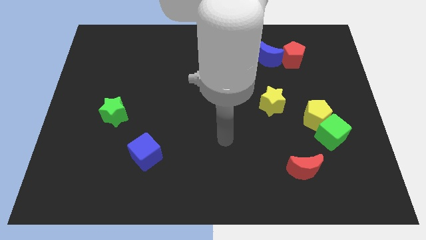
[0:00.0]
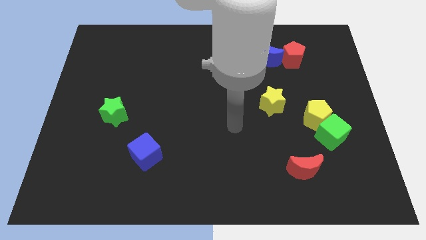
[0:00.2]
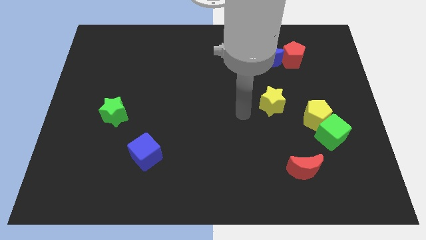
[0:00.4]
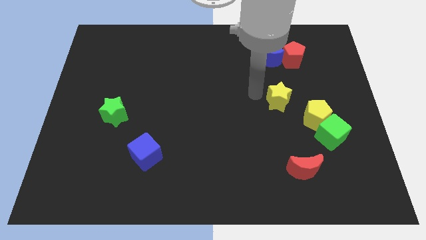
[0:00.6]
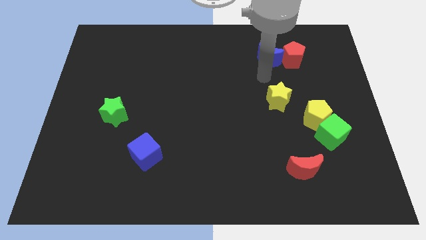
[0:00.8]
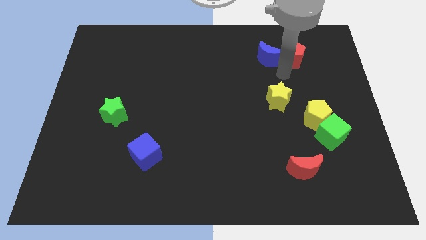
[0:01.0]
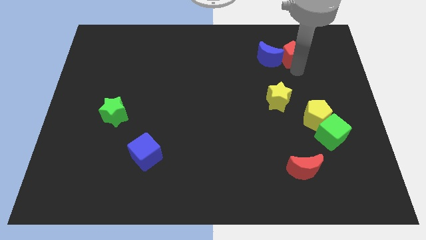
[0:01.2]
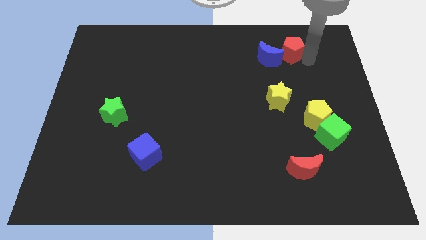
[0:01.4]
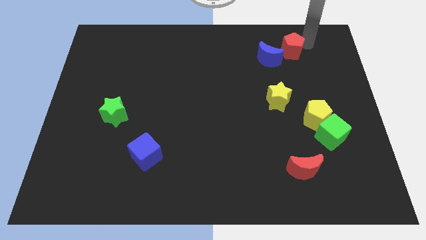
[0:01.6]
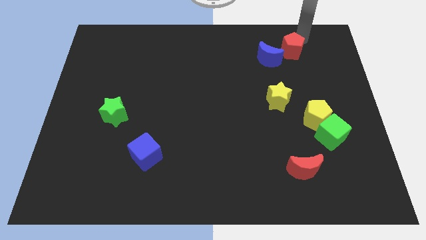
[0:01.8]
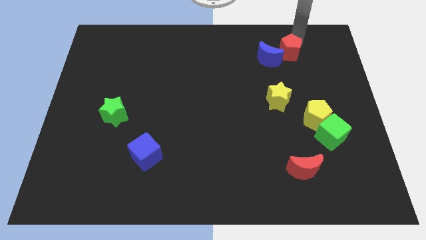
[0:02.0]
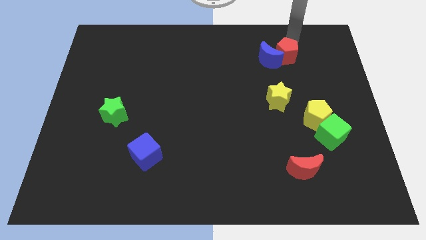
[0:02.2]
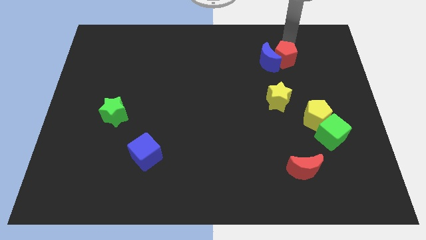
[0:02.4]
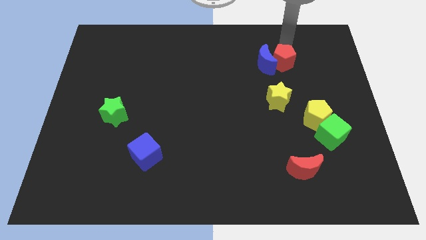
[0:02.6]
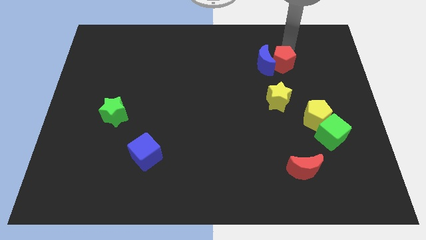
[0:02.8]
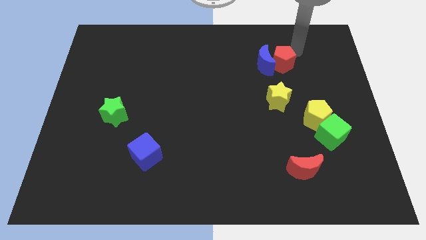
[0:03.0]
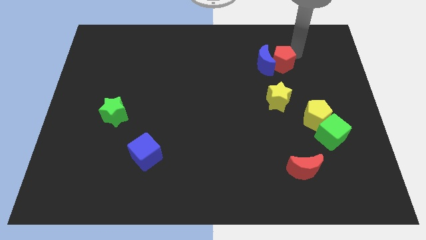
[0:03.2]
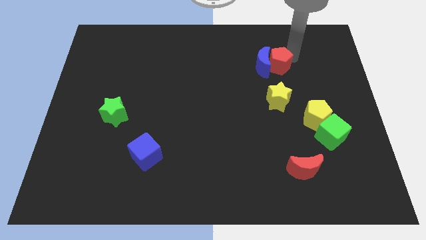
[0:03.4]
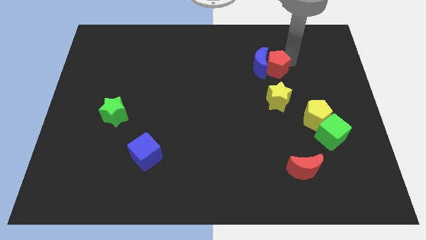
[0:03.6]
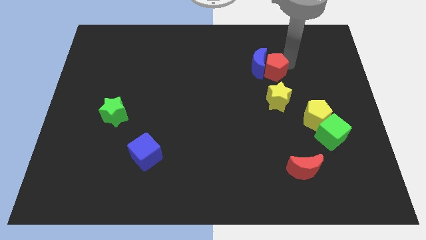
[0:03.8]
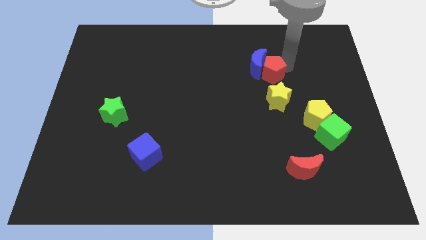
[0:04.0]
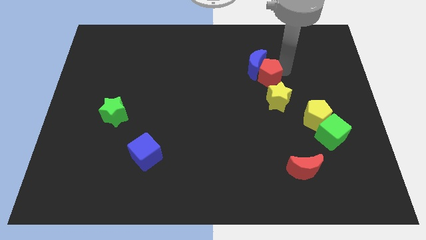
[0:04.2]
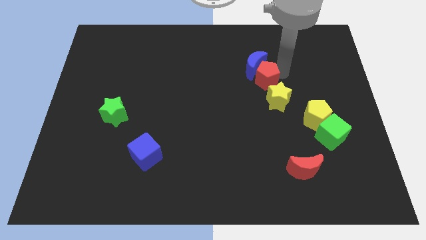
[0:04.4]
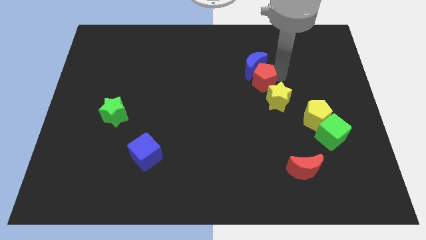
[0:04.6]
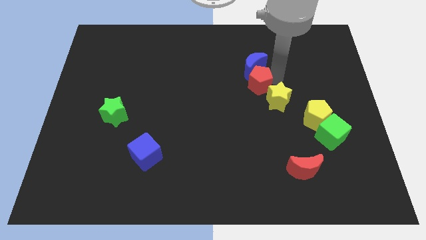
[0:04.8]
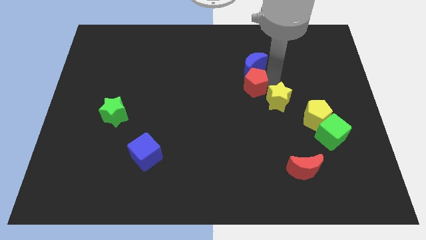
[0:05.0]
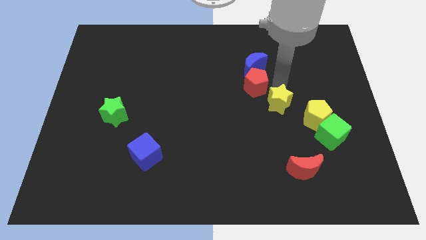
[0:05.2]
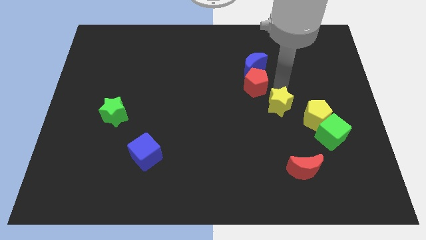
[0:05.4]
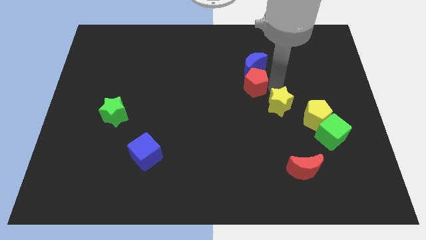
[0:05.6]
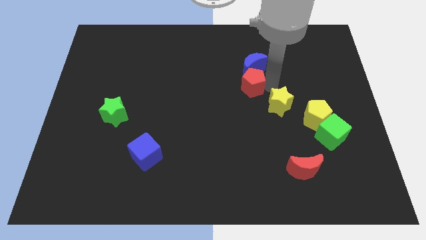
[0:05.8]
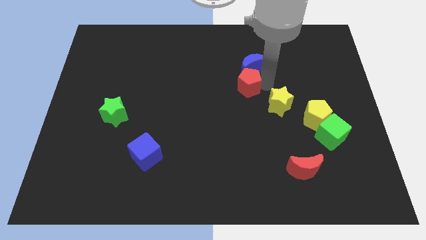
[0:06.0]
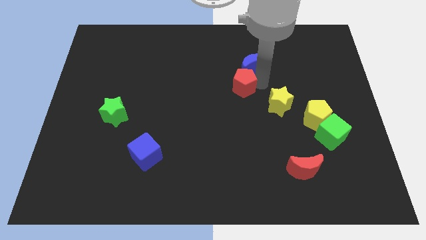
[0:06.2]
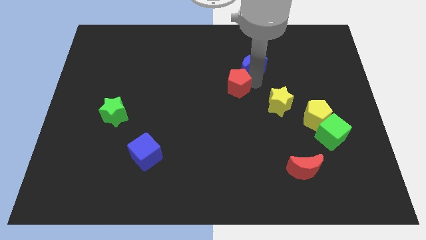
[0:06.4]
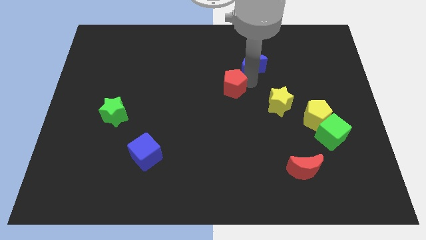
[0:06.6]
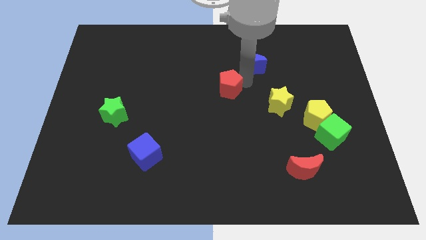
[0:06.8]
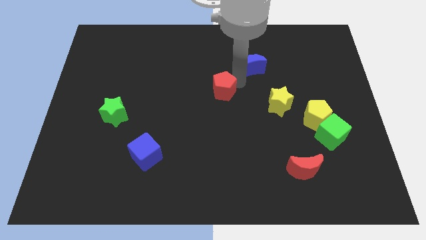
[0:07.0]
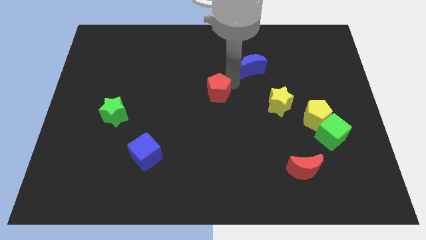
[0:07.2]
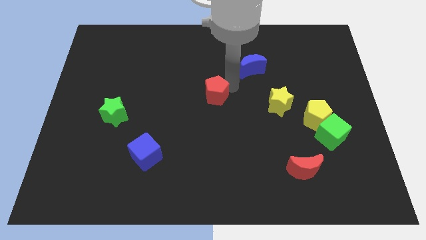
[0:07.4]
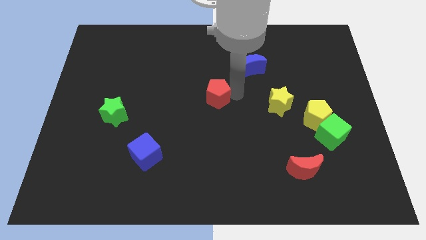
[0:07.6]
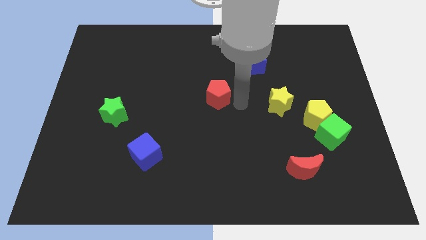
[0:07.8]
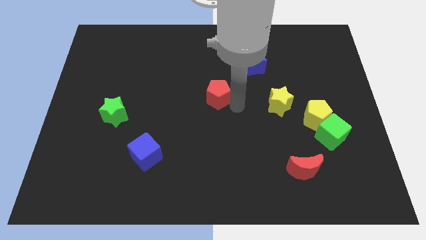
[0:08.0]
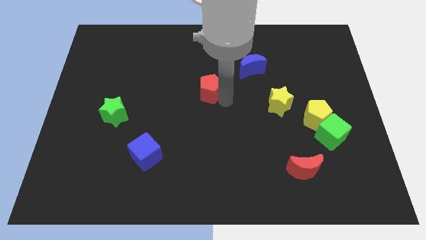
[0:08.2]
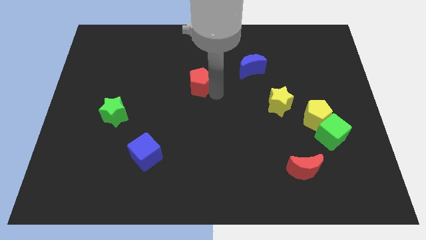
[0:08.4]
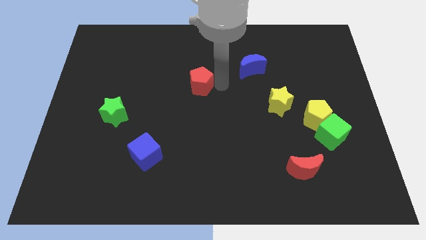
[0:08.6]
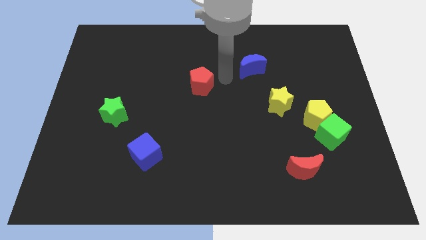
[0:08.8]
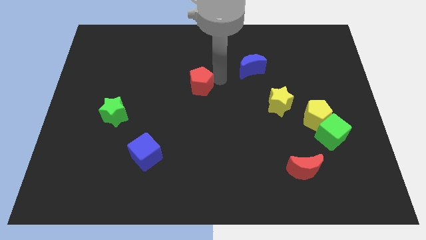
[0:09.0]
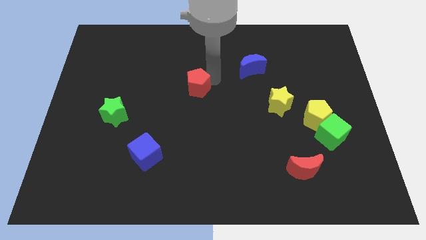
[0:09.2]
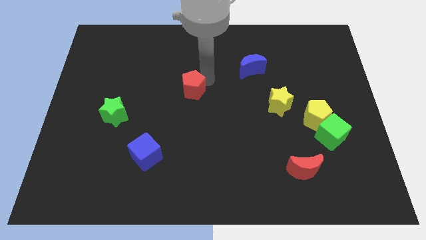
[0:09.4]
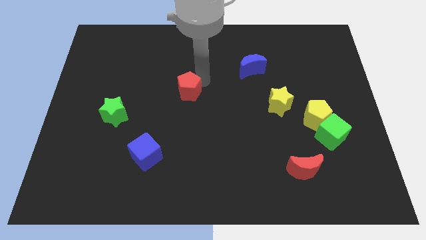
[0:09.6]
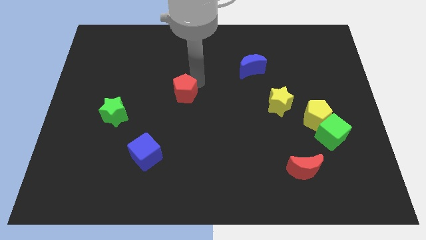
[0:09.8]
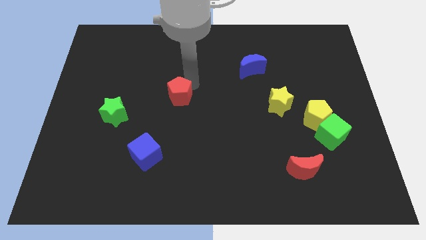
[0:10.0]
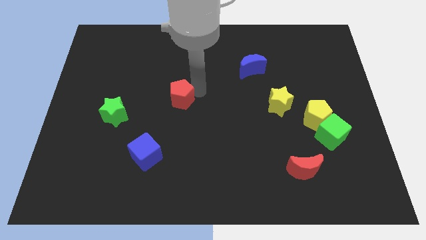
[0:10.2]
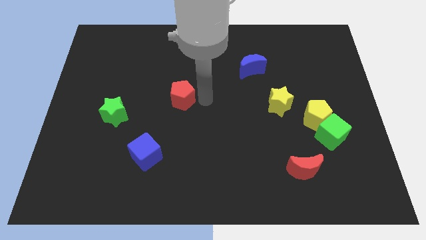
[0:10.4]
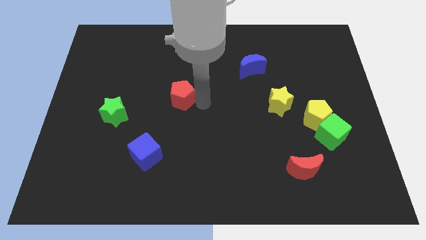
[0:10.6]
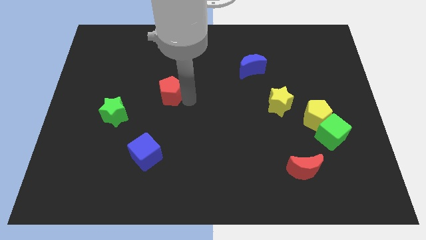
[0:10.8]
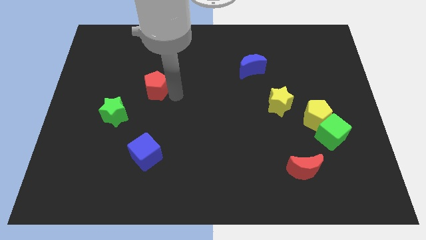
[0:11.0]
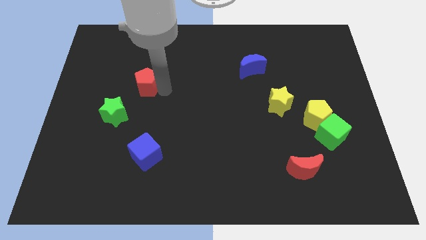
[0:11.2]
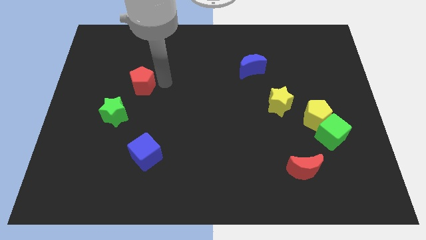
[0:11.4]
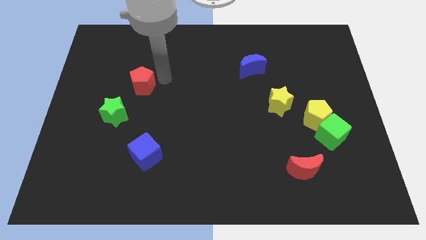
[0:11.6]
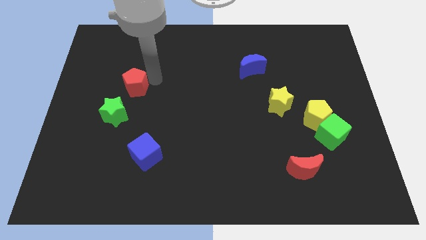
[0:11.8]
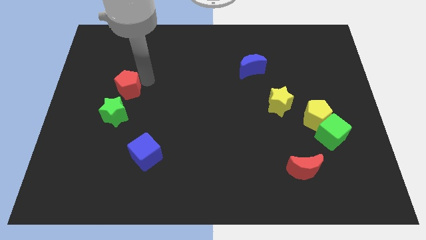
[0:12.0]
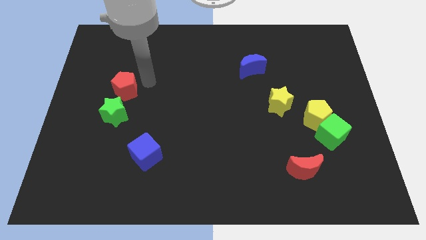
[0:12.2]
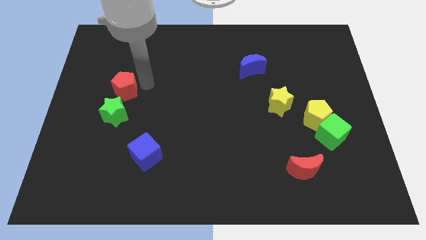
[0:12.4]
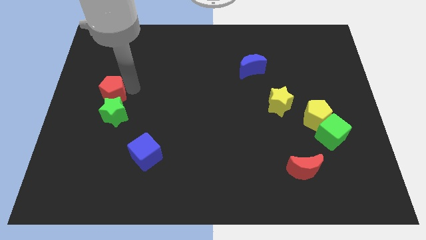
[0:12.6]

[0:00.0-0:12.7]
push the red pentagon diagonally up and to the left of the green star

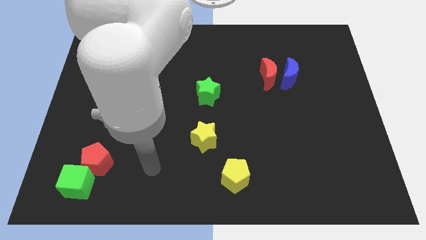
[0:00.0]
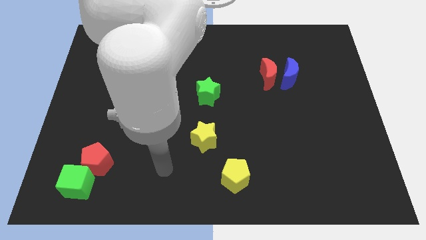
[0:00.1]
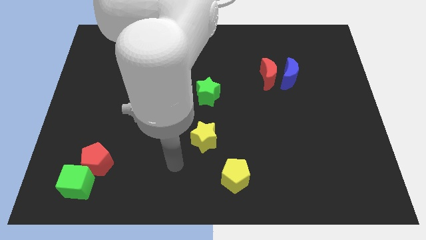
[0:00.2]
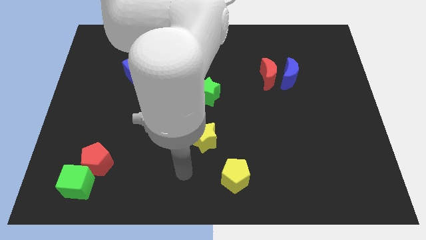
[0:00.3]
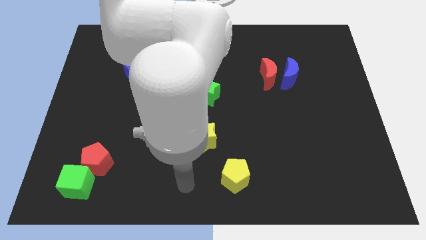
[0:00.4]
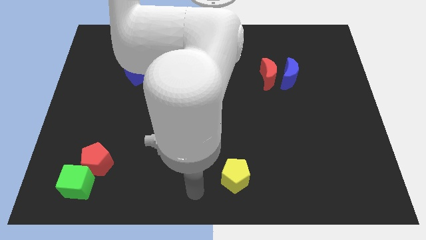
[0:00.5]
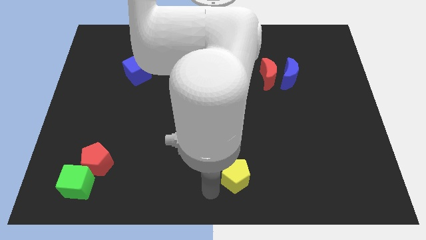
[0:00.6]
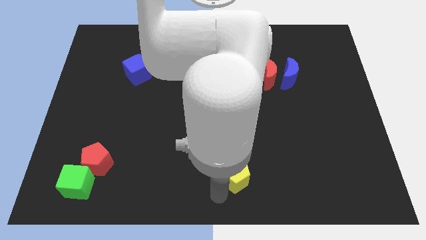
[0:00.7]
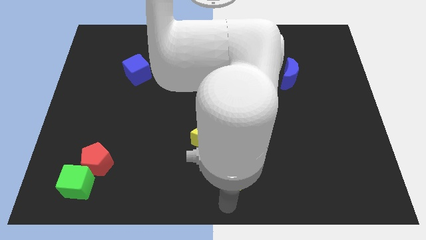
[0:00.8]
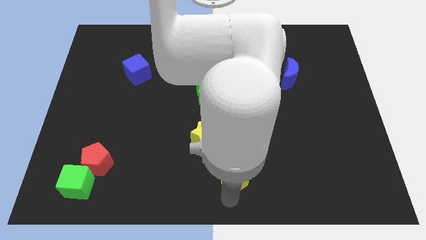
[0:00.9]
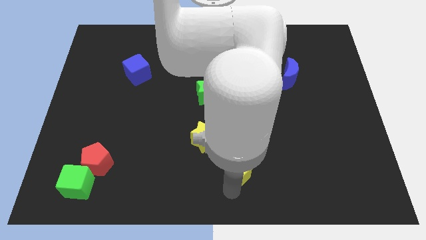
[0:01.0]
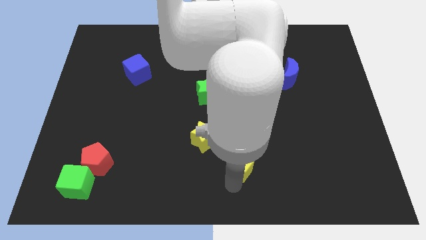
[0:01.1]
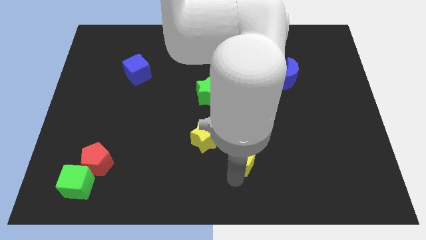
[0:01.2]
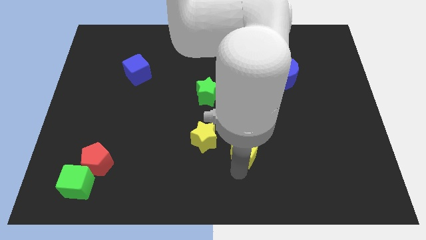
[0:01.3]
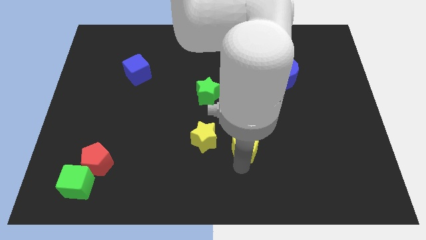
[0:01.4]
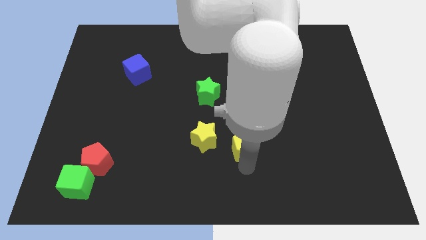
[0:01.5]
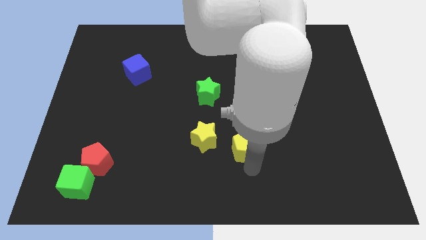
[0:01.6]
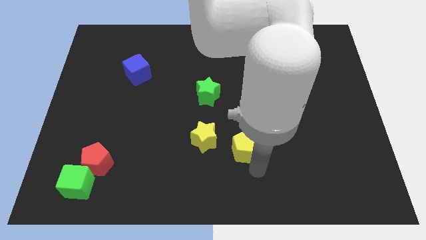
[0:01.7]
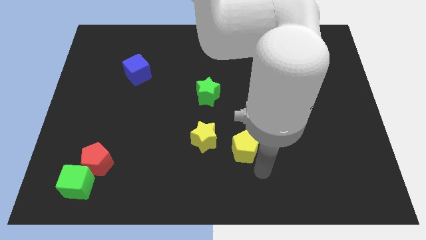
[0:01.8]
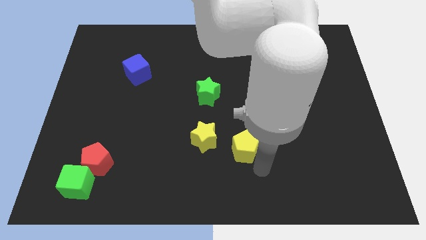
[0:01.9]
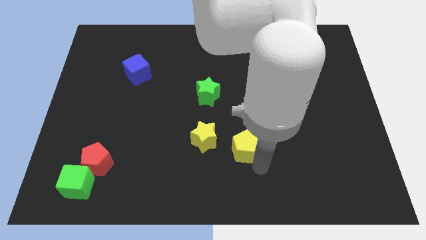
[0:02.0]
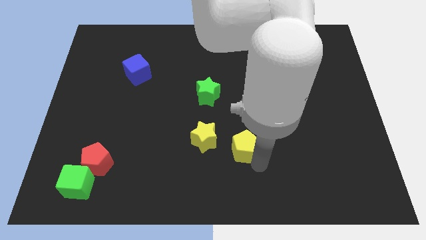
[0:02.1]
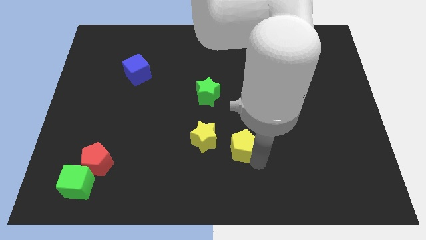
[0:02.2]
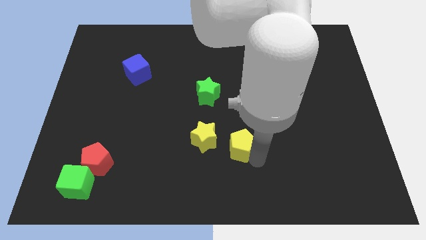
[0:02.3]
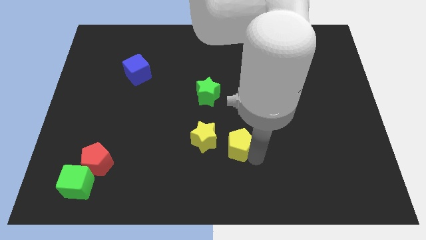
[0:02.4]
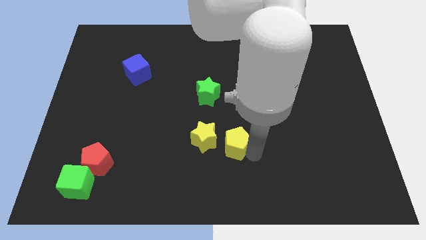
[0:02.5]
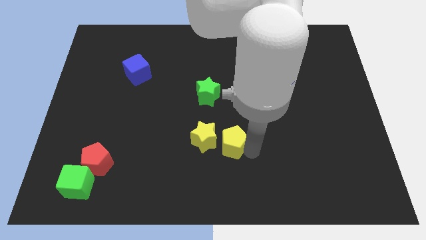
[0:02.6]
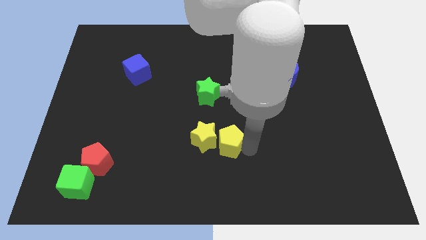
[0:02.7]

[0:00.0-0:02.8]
slide the yellow pentagon diagonally up and to the right of the yellow star
